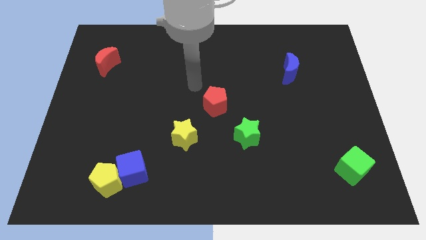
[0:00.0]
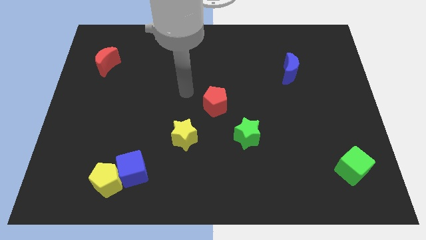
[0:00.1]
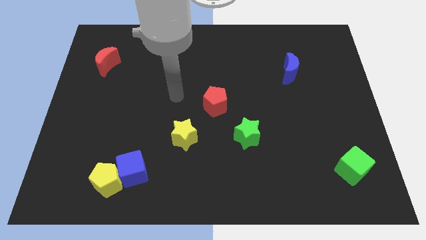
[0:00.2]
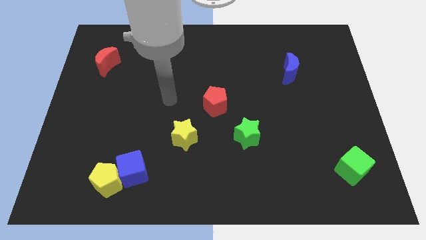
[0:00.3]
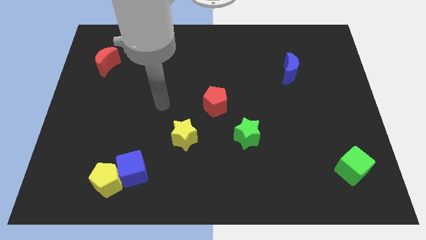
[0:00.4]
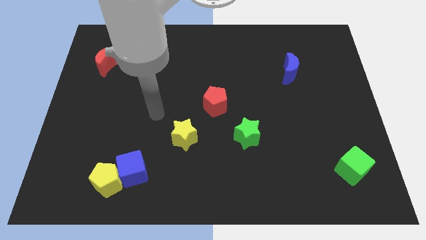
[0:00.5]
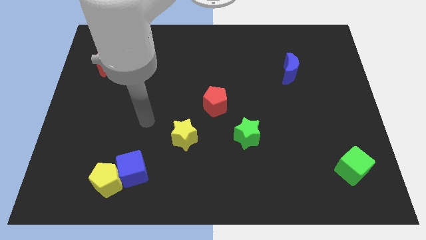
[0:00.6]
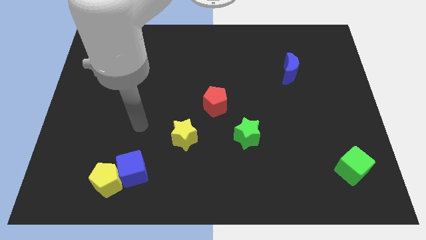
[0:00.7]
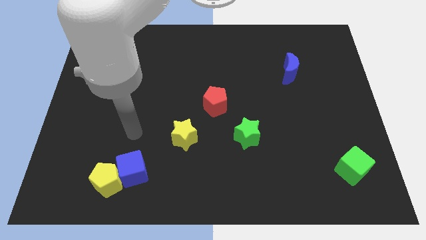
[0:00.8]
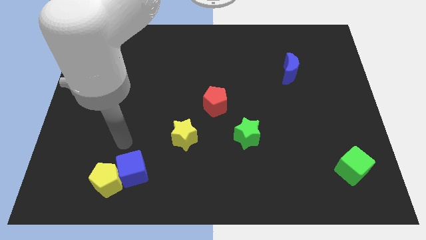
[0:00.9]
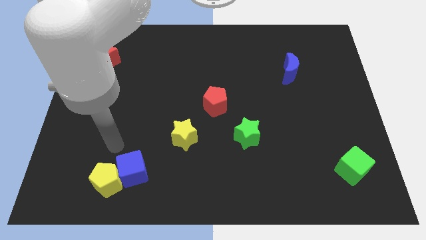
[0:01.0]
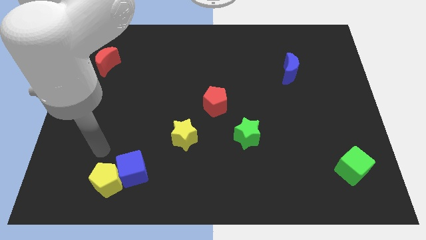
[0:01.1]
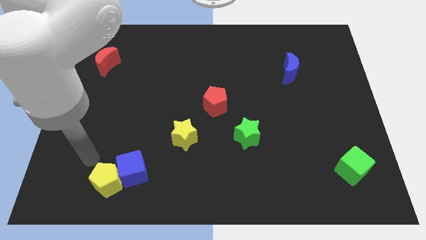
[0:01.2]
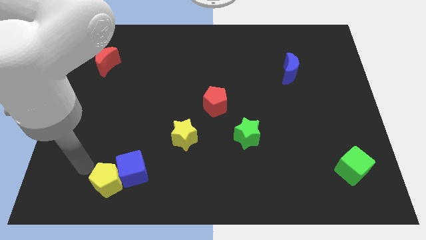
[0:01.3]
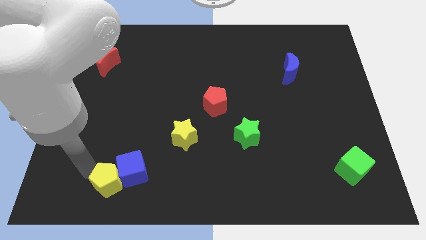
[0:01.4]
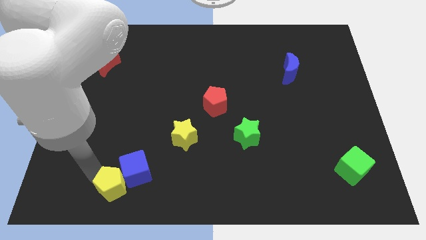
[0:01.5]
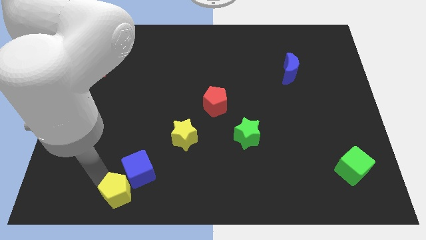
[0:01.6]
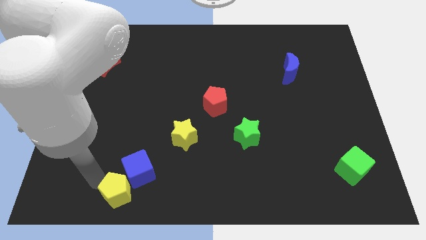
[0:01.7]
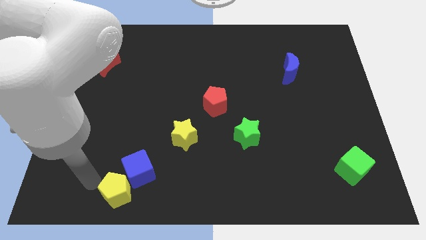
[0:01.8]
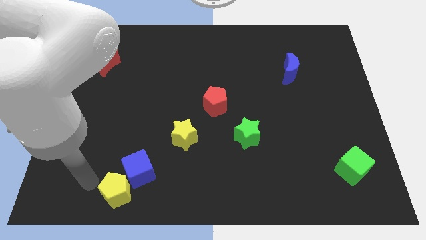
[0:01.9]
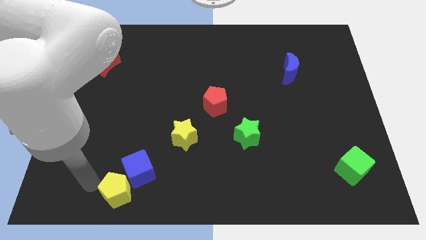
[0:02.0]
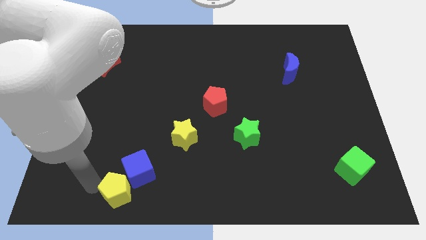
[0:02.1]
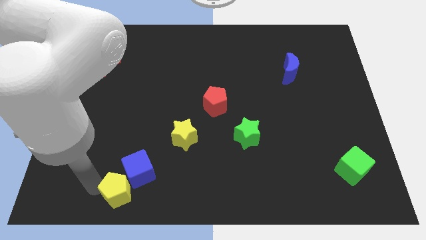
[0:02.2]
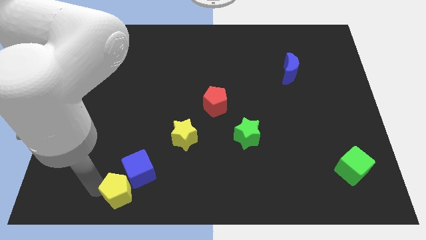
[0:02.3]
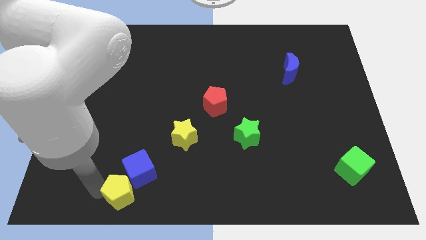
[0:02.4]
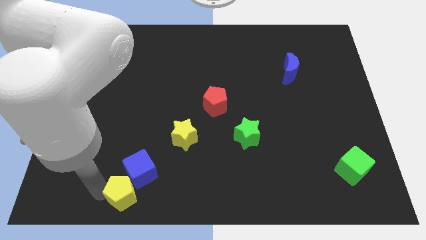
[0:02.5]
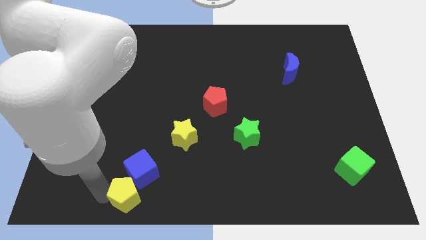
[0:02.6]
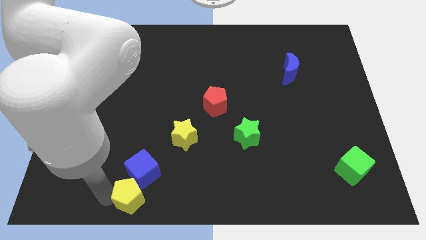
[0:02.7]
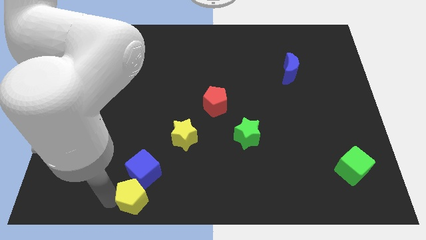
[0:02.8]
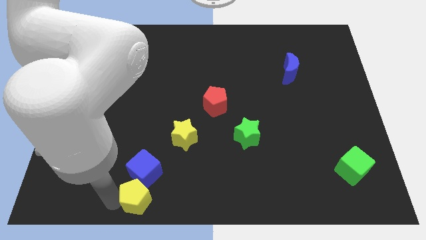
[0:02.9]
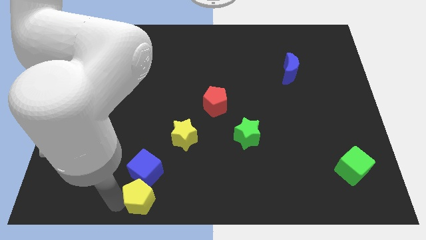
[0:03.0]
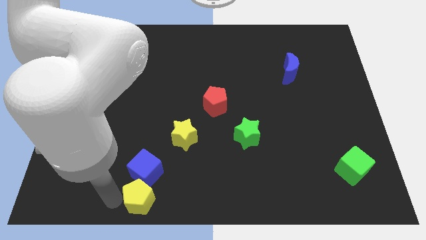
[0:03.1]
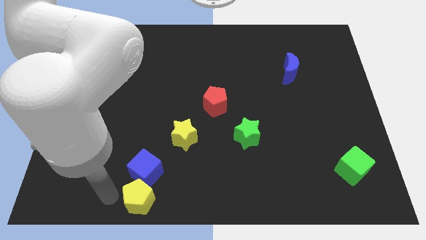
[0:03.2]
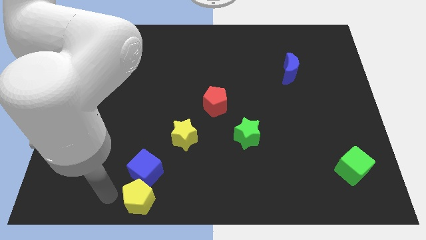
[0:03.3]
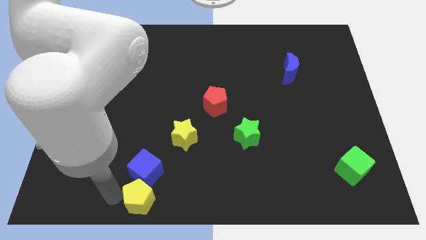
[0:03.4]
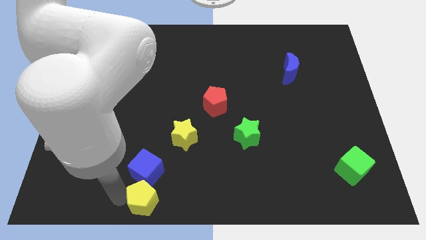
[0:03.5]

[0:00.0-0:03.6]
push the yellow pentagon somewhat right

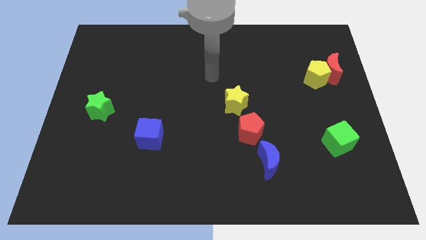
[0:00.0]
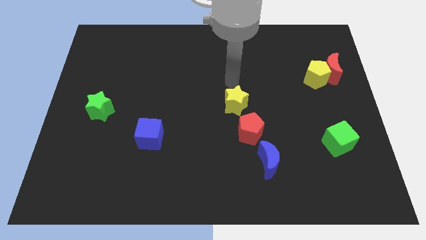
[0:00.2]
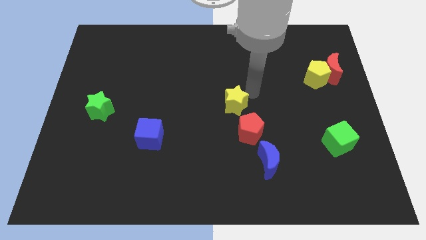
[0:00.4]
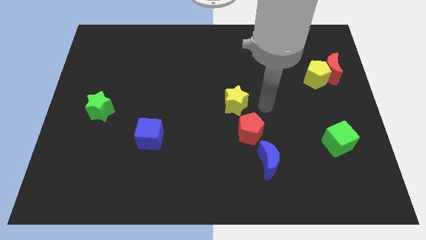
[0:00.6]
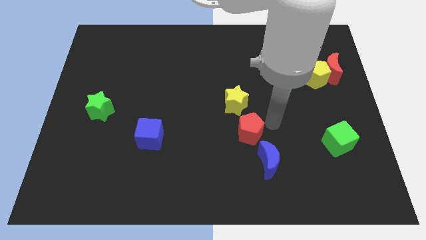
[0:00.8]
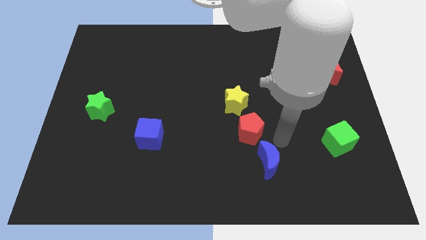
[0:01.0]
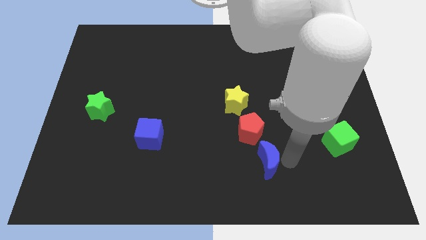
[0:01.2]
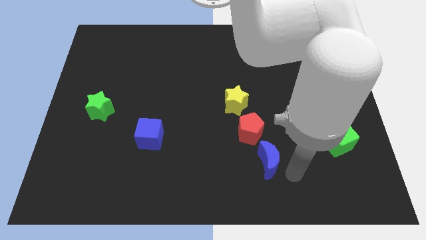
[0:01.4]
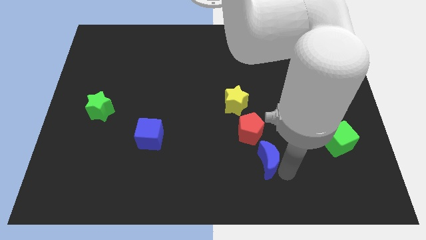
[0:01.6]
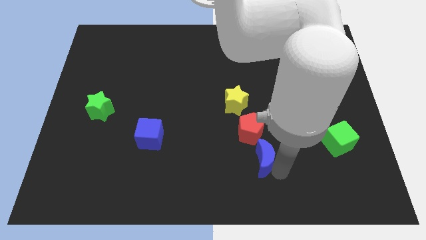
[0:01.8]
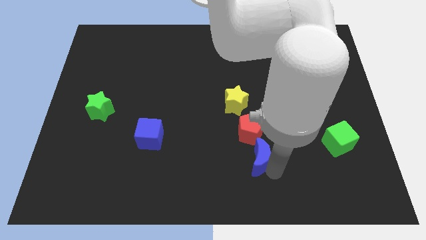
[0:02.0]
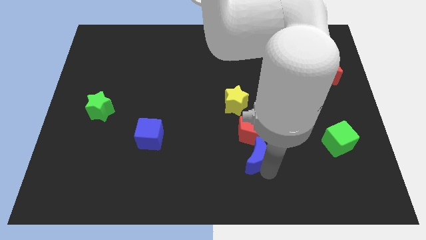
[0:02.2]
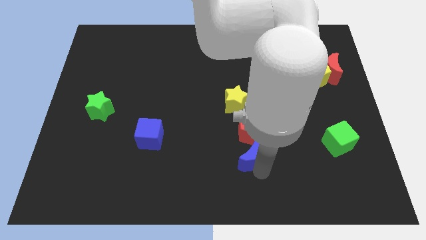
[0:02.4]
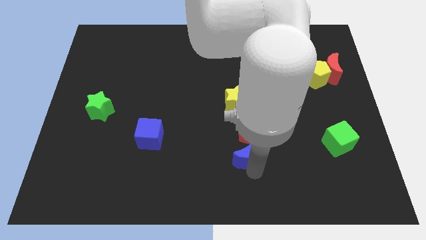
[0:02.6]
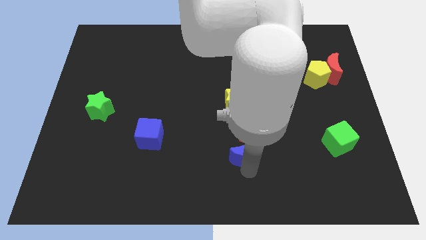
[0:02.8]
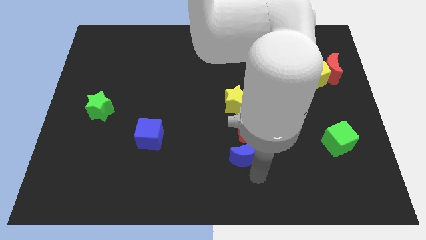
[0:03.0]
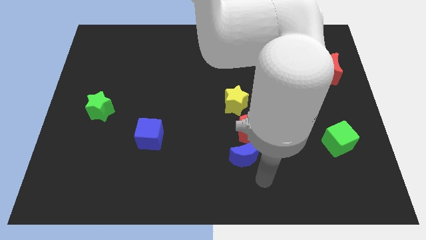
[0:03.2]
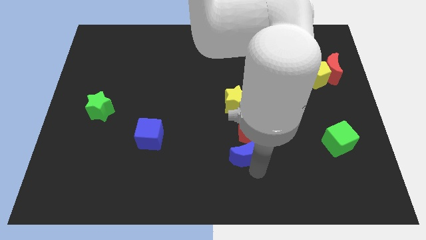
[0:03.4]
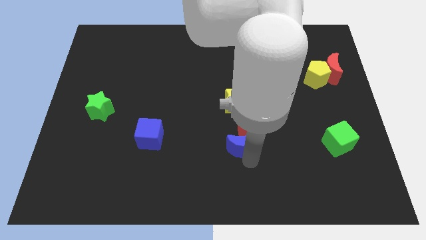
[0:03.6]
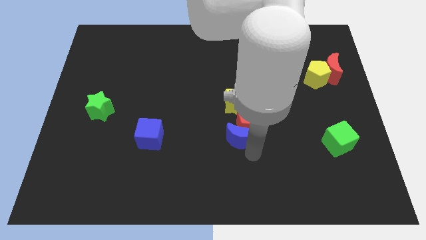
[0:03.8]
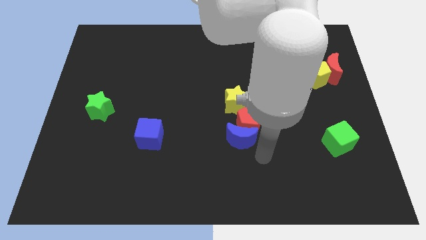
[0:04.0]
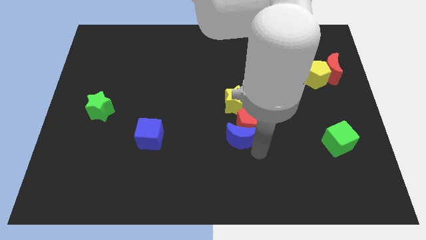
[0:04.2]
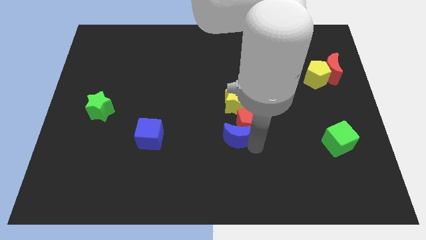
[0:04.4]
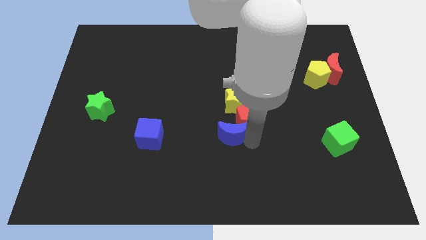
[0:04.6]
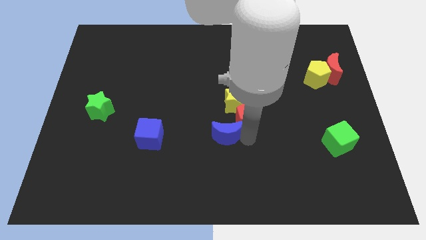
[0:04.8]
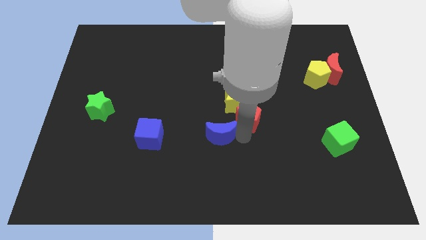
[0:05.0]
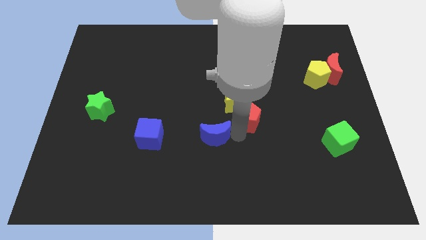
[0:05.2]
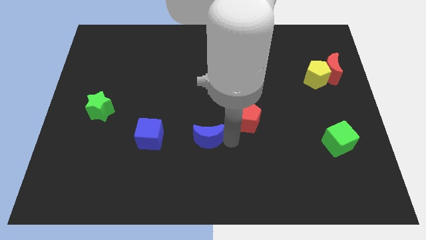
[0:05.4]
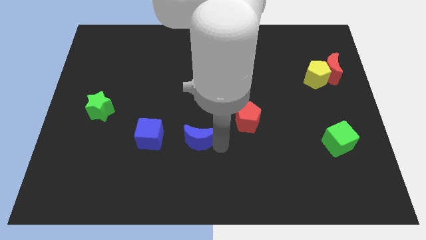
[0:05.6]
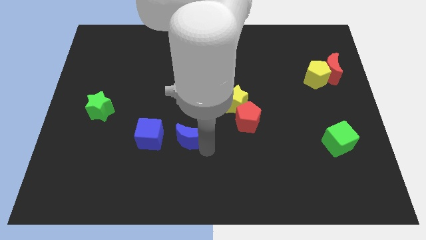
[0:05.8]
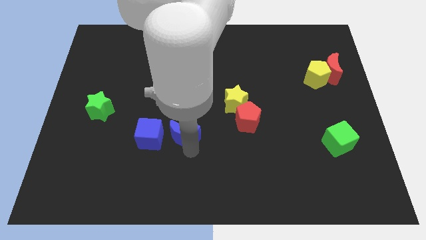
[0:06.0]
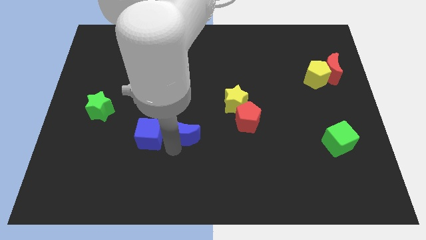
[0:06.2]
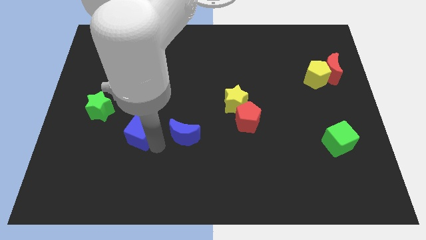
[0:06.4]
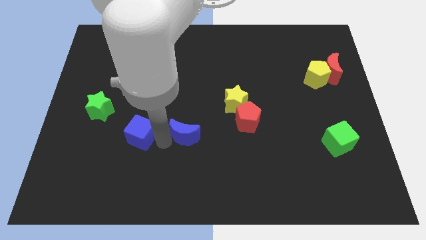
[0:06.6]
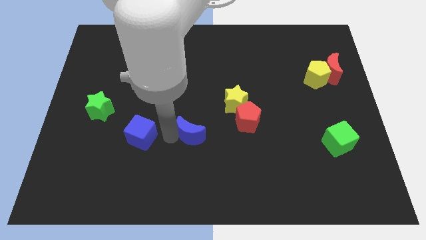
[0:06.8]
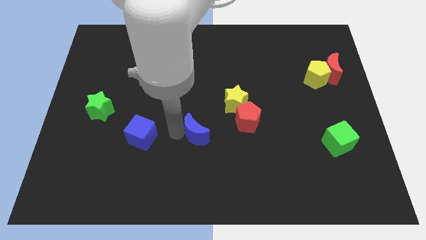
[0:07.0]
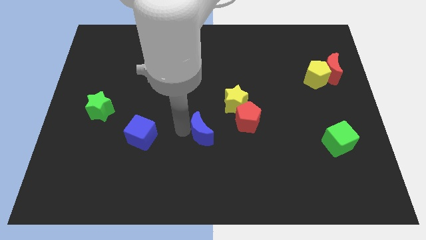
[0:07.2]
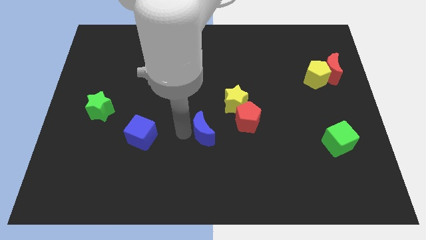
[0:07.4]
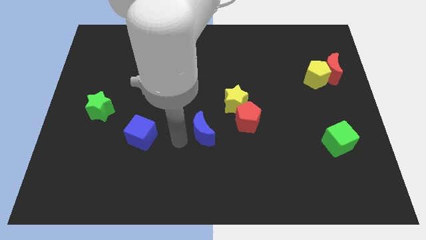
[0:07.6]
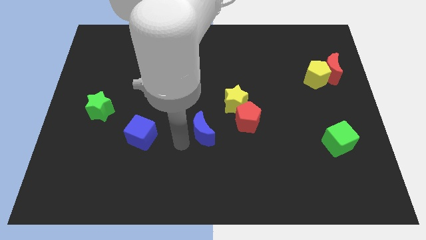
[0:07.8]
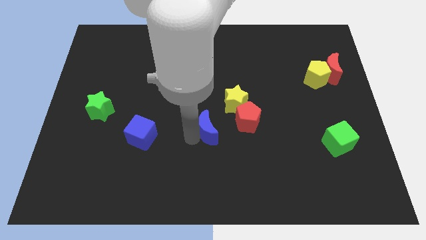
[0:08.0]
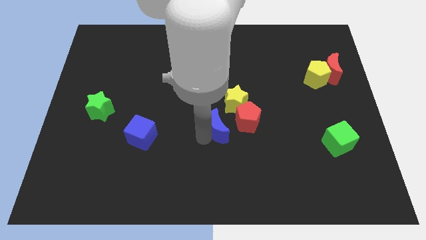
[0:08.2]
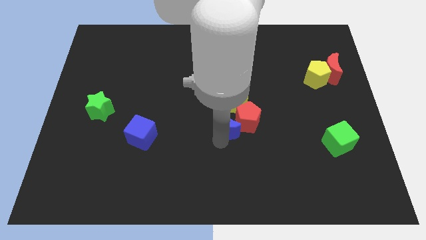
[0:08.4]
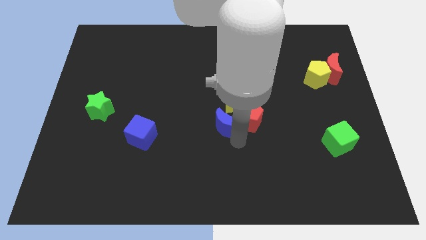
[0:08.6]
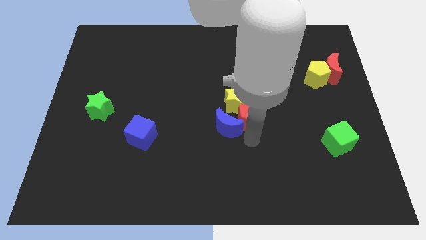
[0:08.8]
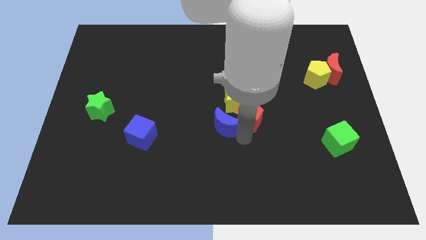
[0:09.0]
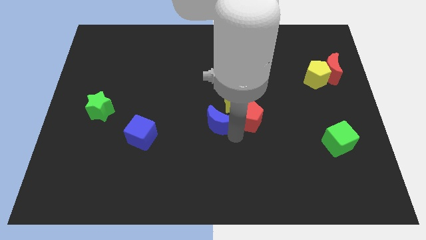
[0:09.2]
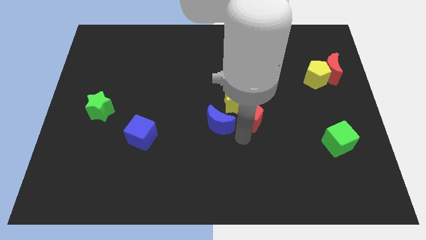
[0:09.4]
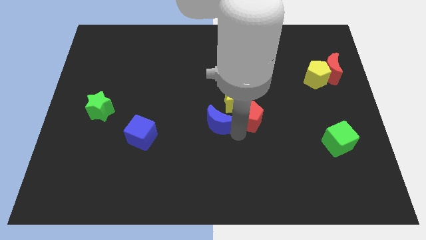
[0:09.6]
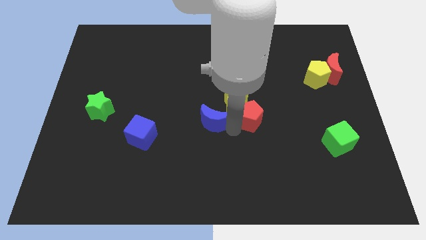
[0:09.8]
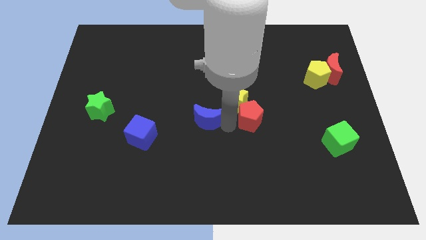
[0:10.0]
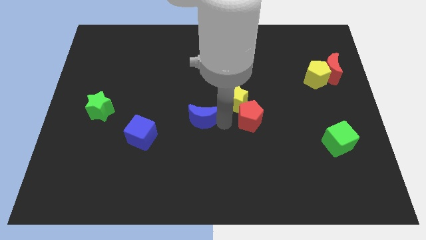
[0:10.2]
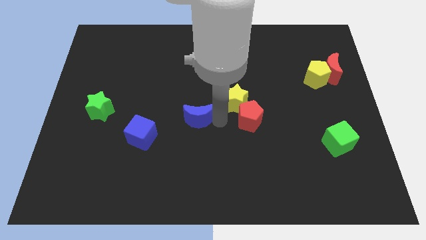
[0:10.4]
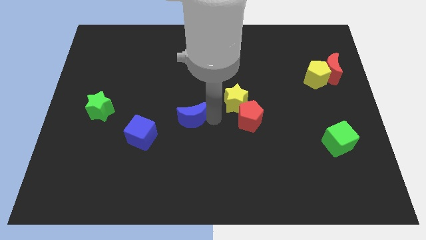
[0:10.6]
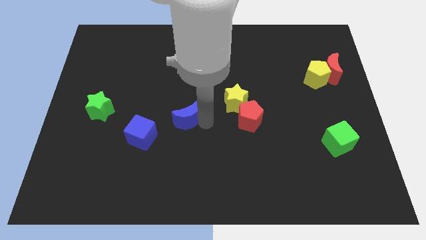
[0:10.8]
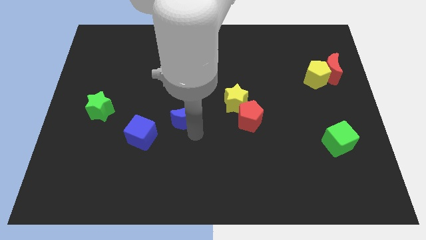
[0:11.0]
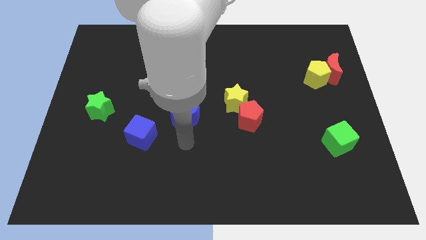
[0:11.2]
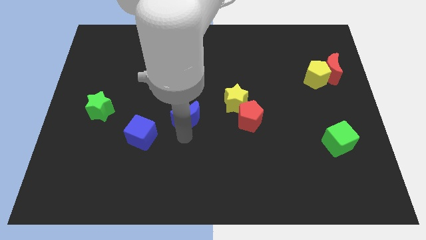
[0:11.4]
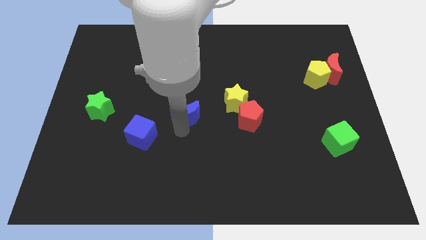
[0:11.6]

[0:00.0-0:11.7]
push the blue moon up and left
